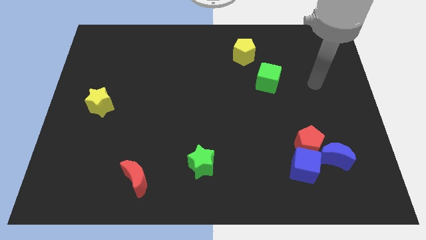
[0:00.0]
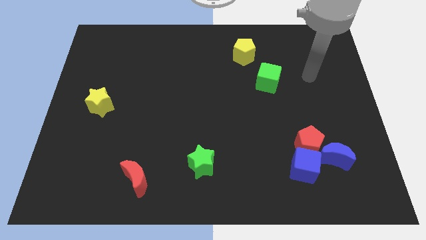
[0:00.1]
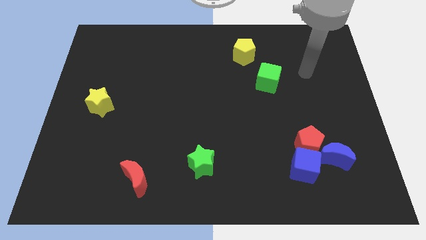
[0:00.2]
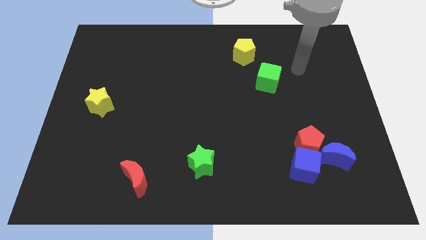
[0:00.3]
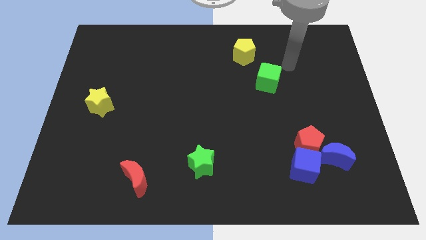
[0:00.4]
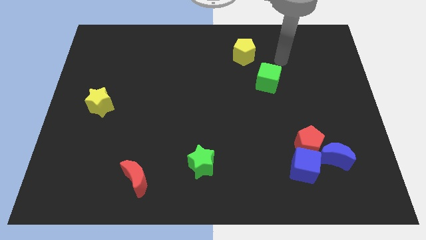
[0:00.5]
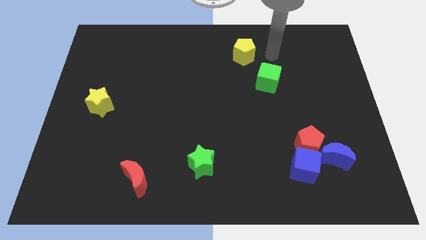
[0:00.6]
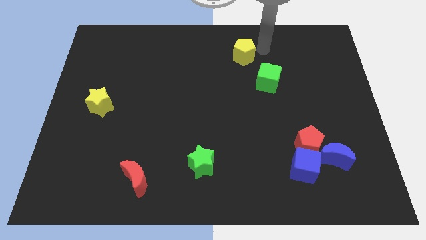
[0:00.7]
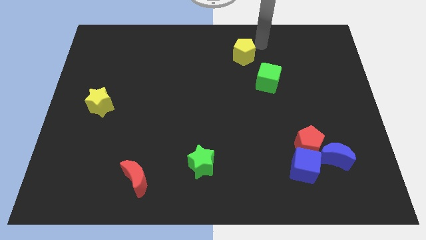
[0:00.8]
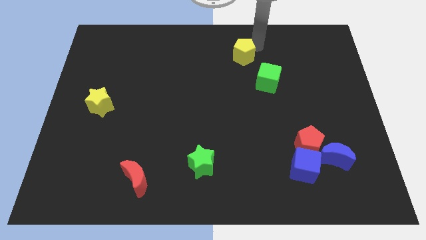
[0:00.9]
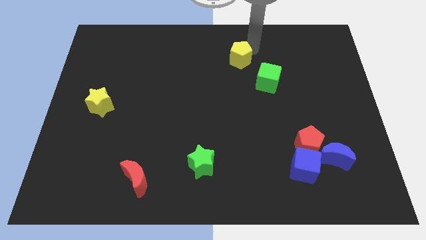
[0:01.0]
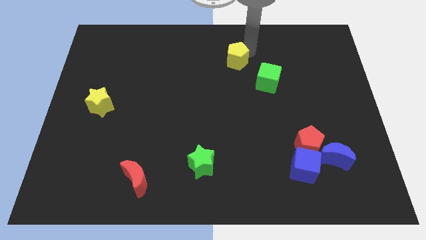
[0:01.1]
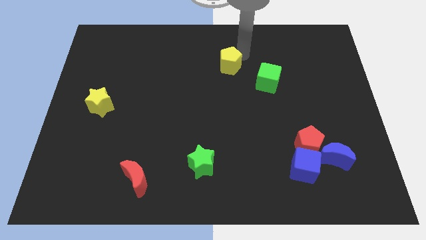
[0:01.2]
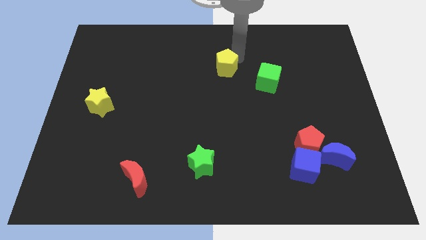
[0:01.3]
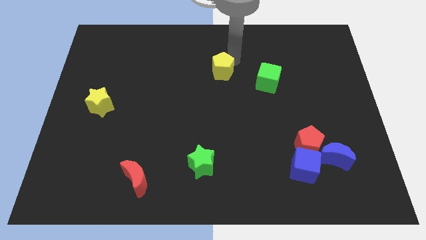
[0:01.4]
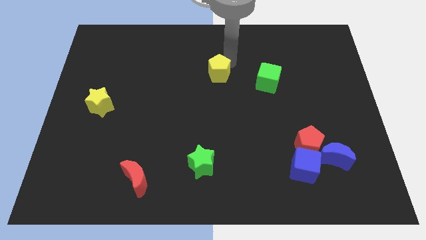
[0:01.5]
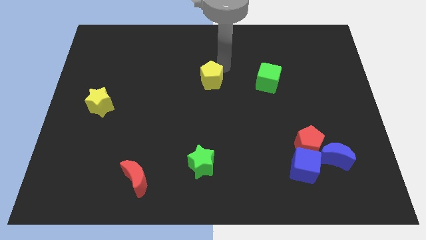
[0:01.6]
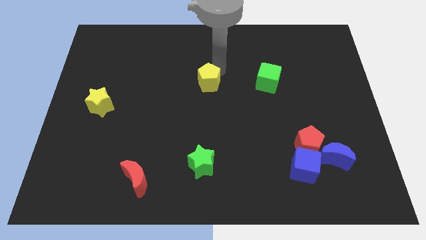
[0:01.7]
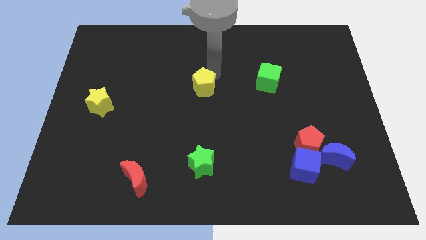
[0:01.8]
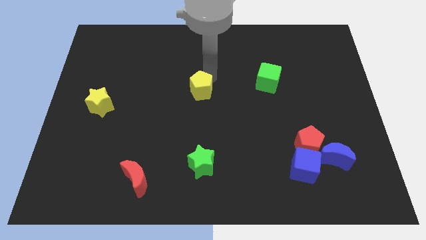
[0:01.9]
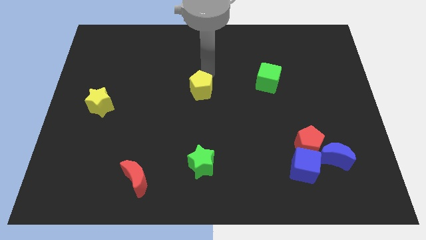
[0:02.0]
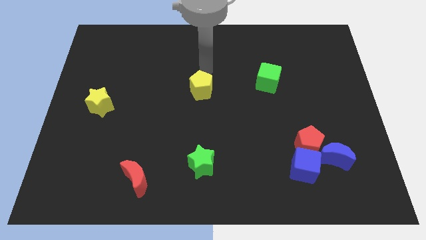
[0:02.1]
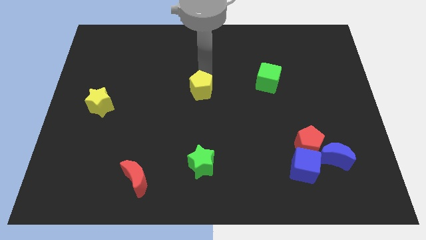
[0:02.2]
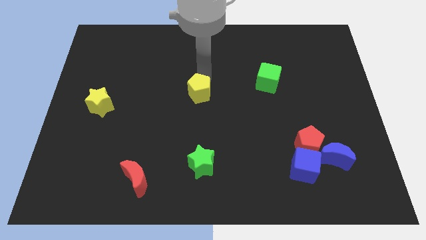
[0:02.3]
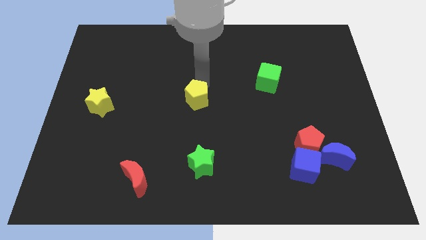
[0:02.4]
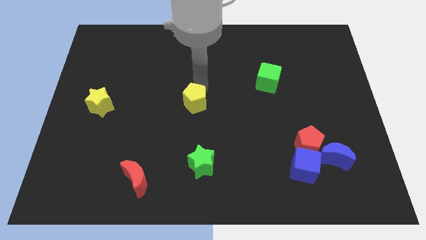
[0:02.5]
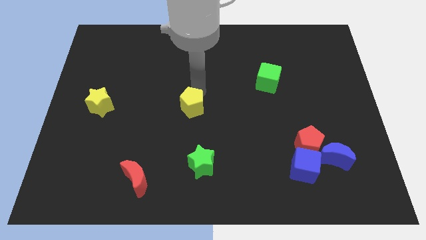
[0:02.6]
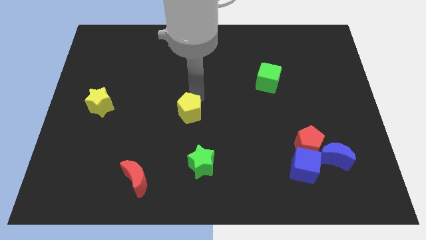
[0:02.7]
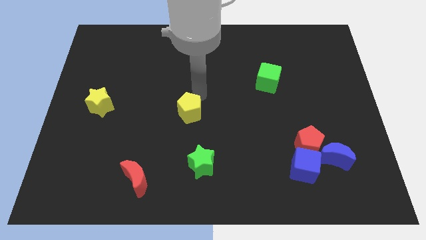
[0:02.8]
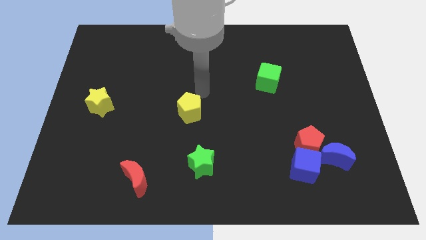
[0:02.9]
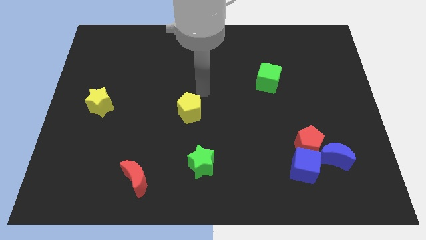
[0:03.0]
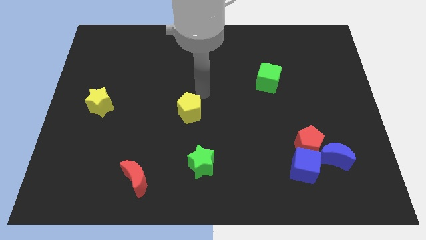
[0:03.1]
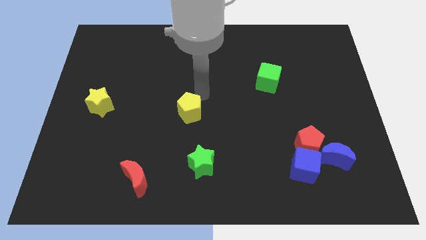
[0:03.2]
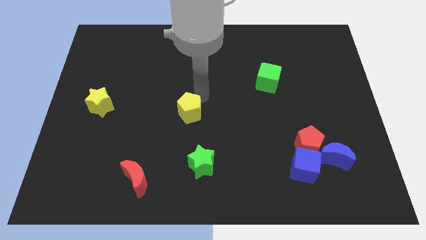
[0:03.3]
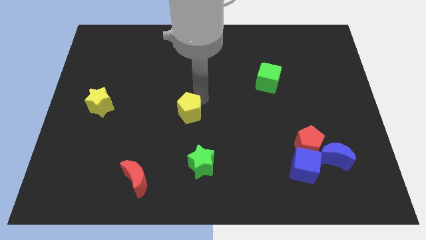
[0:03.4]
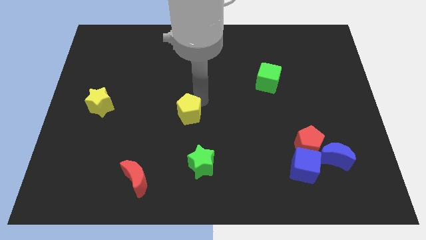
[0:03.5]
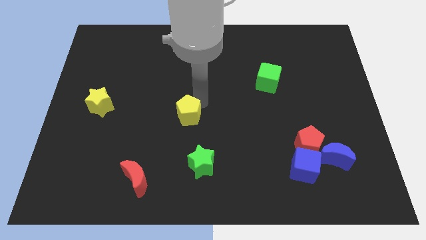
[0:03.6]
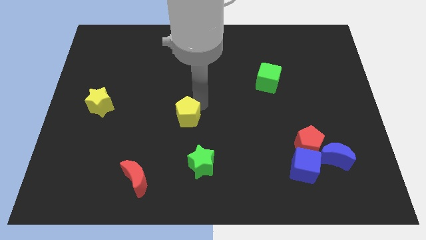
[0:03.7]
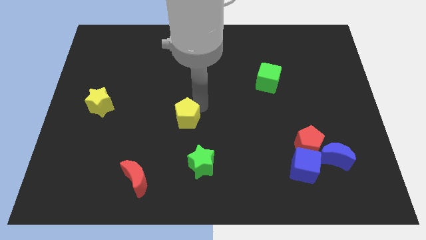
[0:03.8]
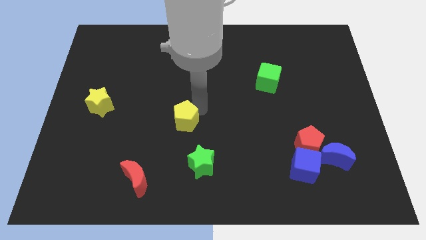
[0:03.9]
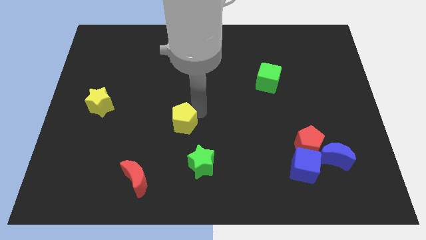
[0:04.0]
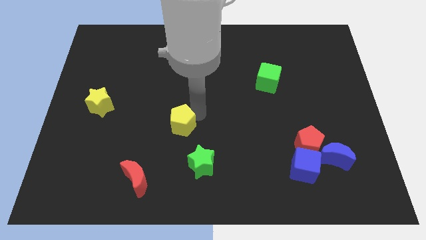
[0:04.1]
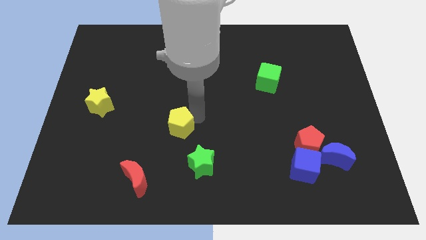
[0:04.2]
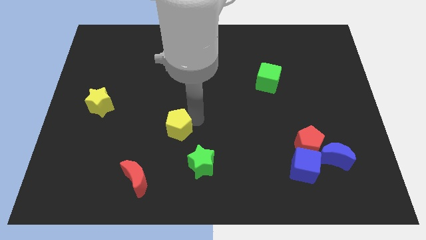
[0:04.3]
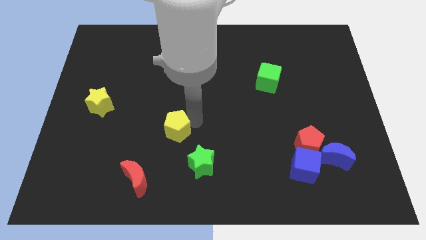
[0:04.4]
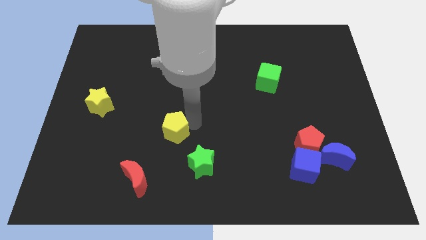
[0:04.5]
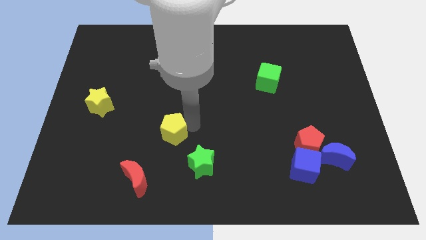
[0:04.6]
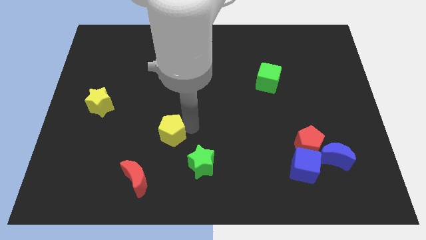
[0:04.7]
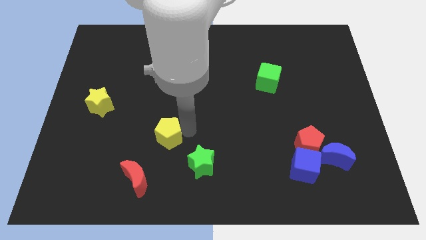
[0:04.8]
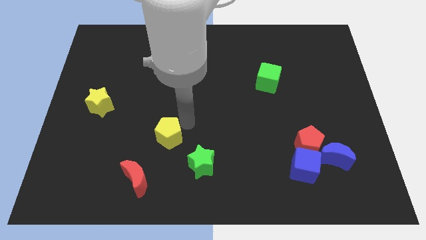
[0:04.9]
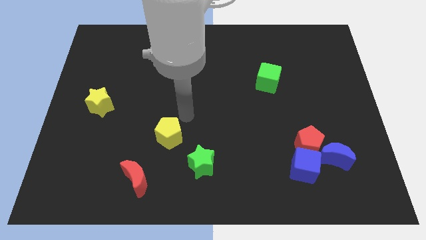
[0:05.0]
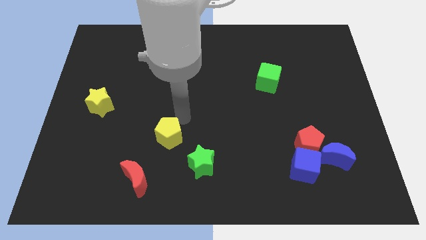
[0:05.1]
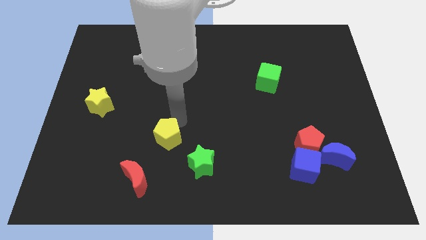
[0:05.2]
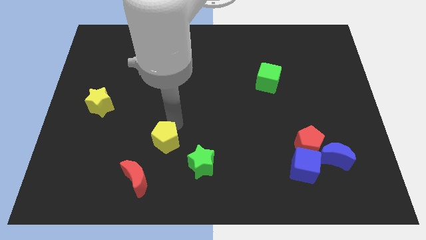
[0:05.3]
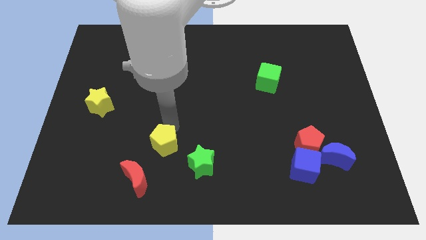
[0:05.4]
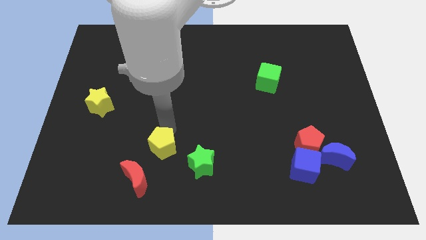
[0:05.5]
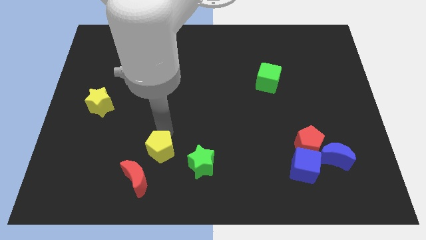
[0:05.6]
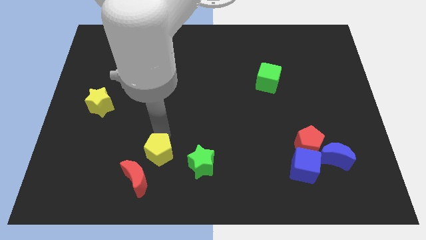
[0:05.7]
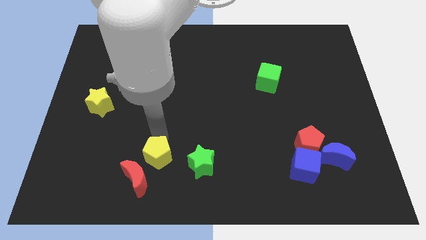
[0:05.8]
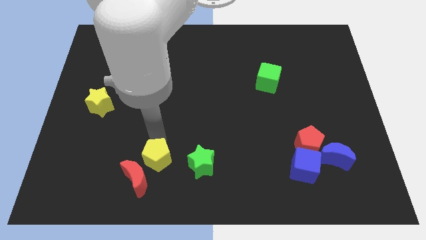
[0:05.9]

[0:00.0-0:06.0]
put the yellow pentagon towards the red moon

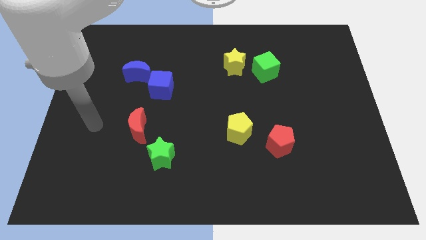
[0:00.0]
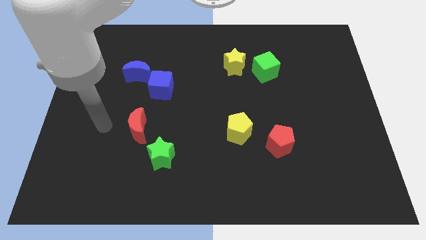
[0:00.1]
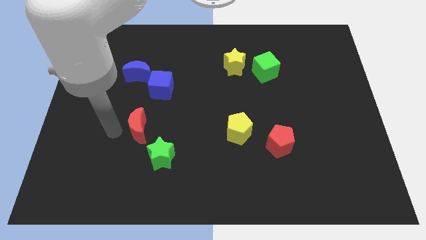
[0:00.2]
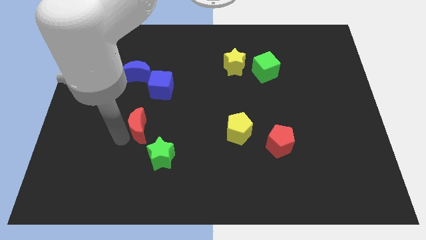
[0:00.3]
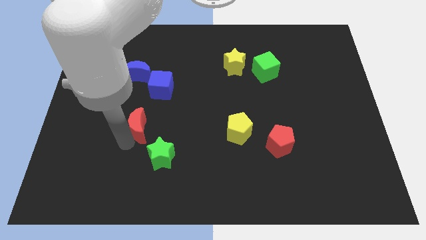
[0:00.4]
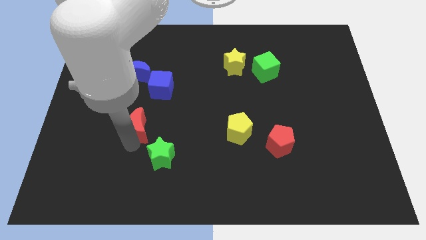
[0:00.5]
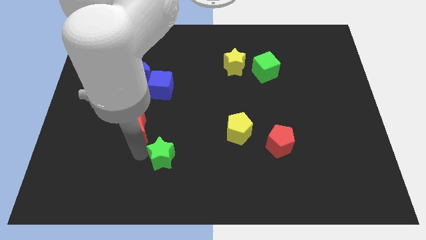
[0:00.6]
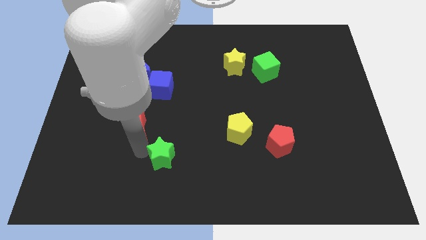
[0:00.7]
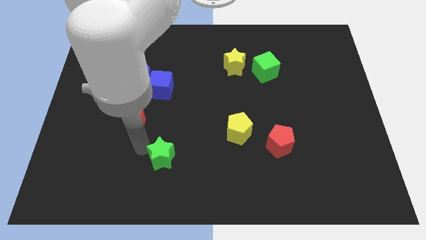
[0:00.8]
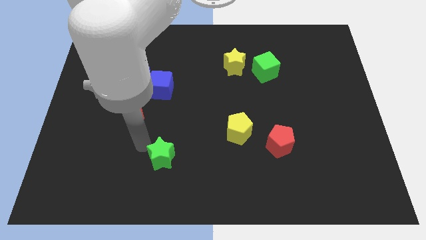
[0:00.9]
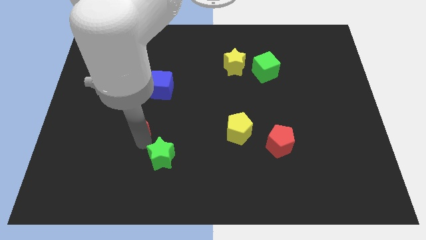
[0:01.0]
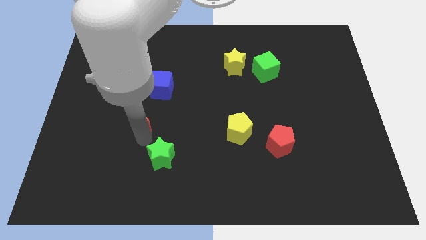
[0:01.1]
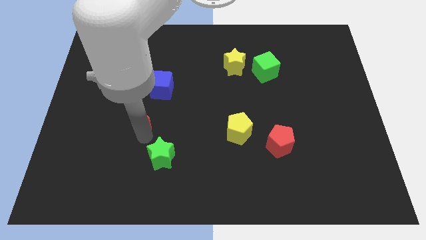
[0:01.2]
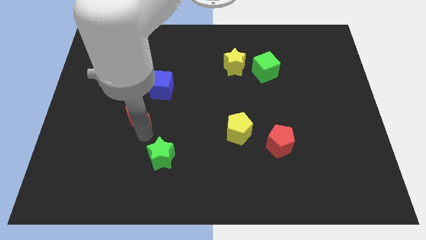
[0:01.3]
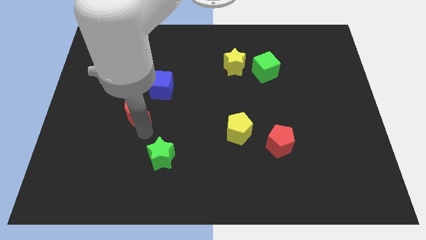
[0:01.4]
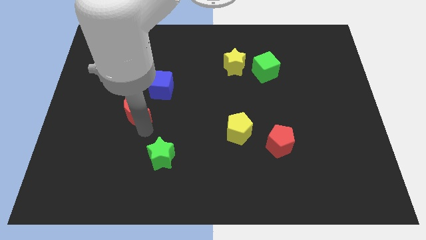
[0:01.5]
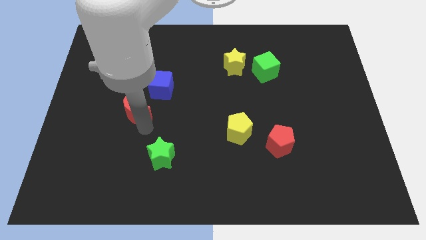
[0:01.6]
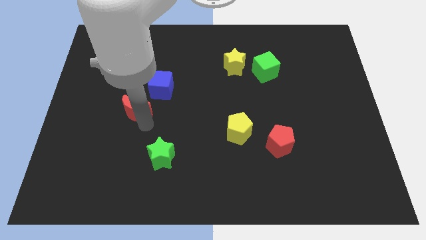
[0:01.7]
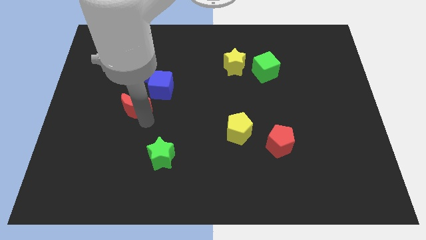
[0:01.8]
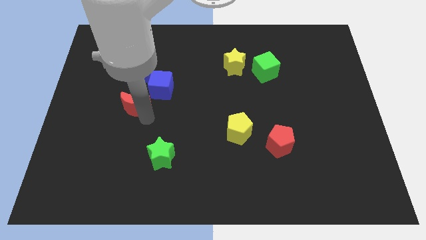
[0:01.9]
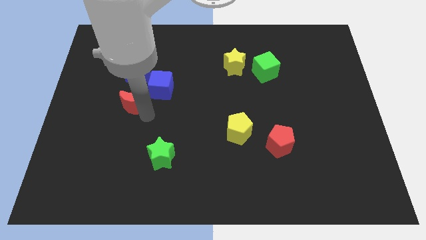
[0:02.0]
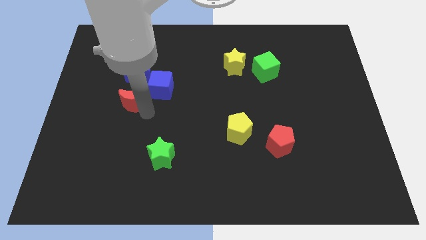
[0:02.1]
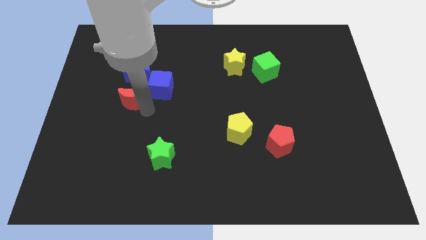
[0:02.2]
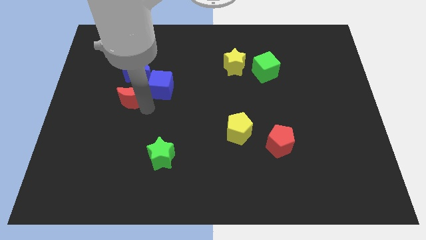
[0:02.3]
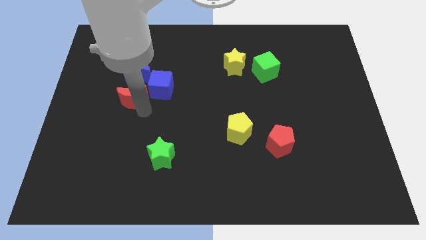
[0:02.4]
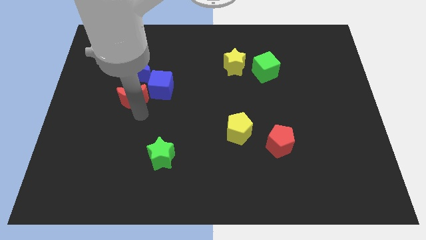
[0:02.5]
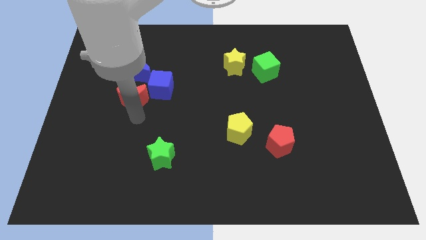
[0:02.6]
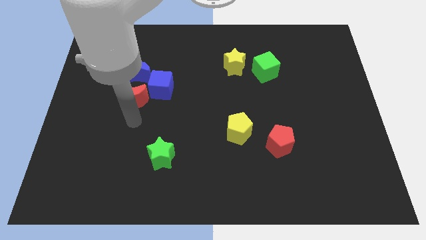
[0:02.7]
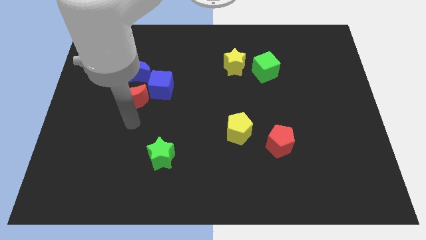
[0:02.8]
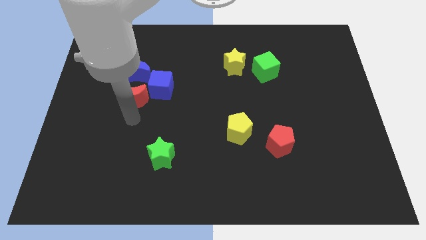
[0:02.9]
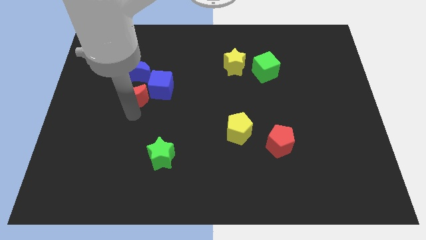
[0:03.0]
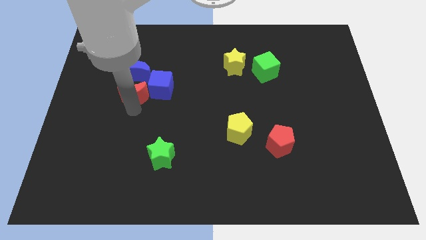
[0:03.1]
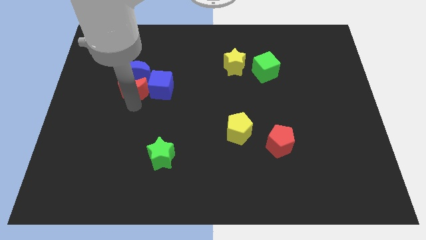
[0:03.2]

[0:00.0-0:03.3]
push the red moon close to the blue moon
